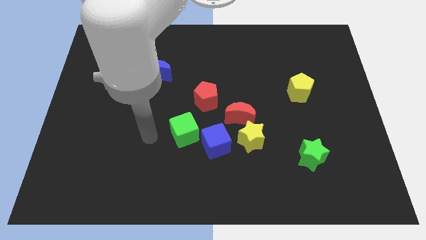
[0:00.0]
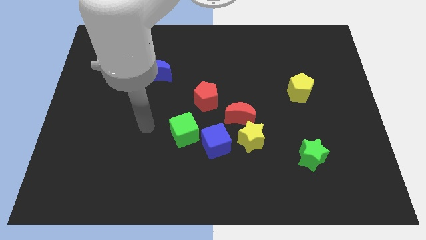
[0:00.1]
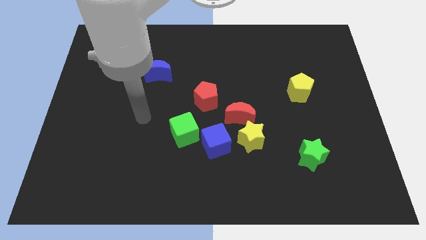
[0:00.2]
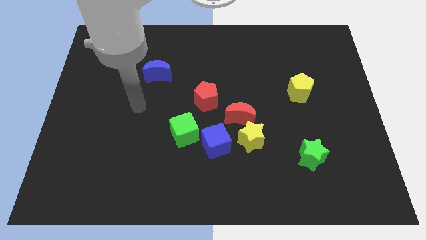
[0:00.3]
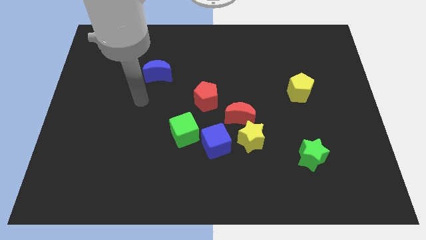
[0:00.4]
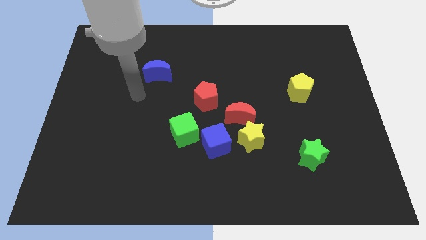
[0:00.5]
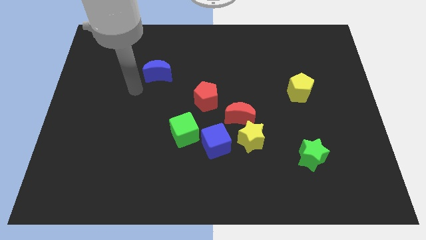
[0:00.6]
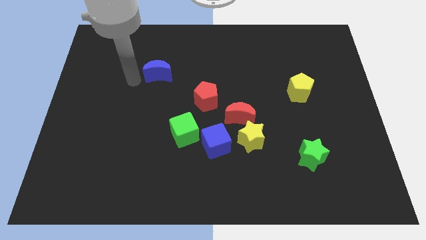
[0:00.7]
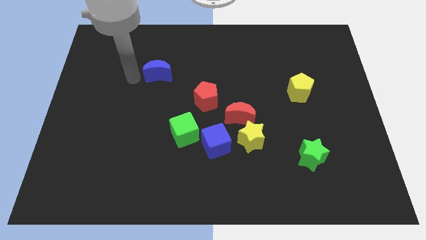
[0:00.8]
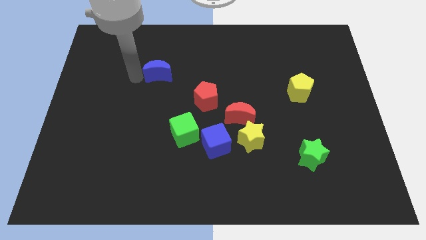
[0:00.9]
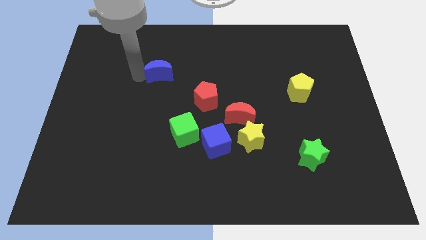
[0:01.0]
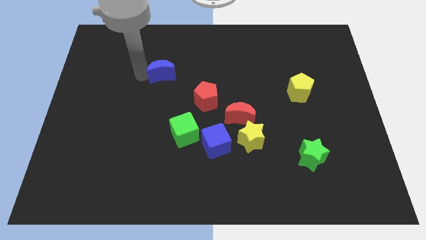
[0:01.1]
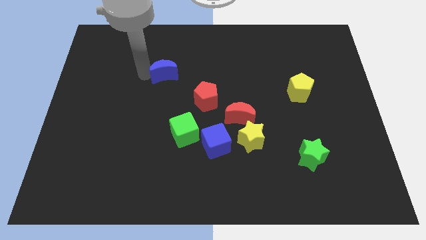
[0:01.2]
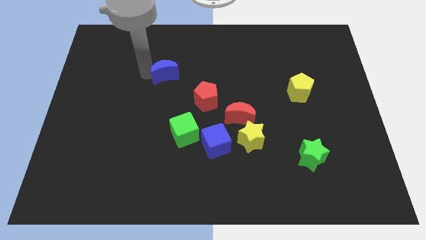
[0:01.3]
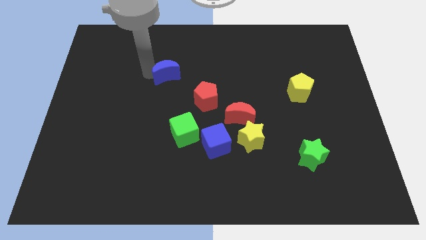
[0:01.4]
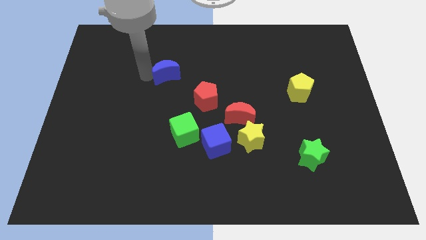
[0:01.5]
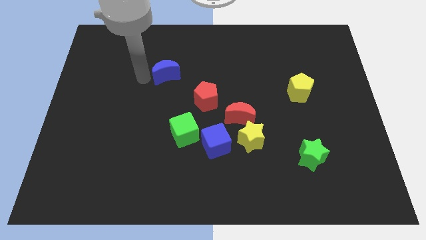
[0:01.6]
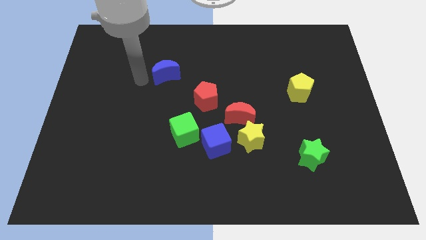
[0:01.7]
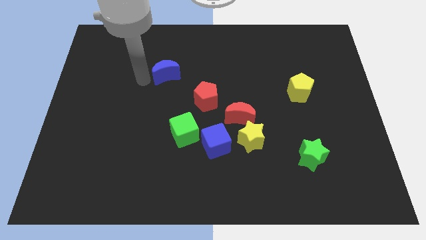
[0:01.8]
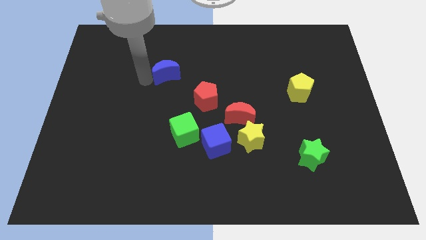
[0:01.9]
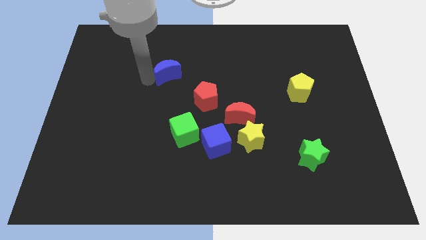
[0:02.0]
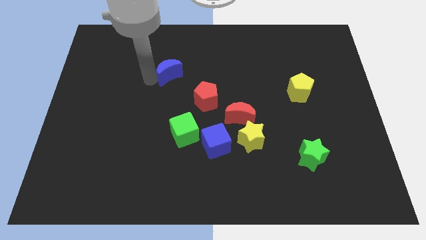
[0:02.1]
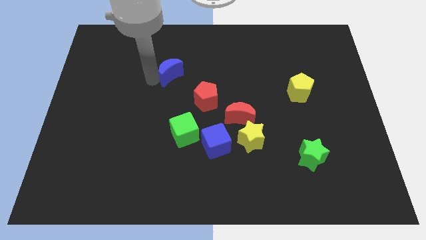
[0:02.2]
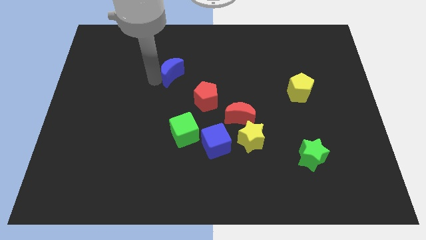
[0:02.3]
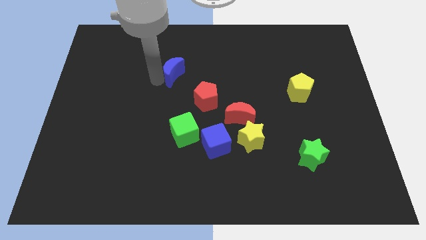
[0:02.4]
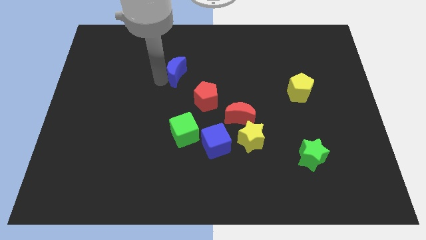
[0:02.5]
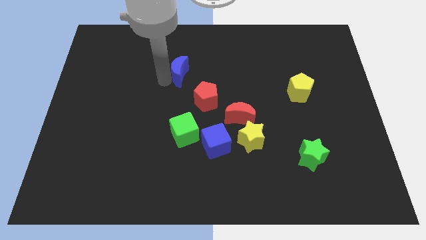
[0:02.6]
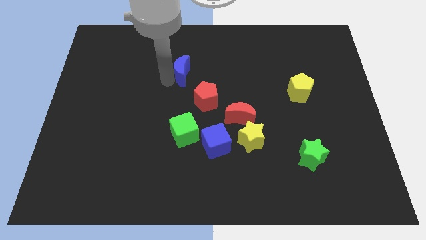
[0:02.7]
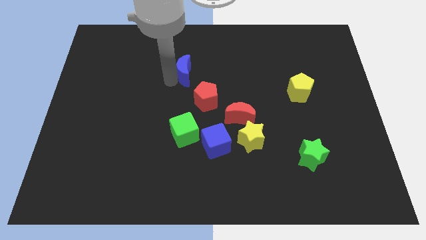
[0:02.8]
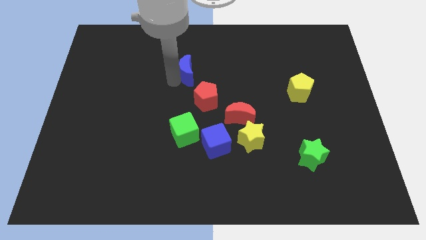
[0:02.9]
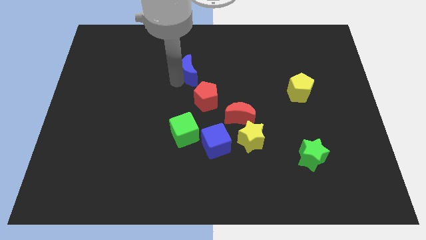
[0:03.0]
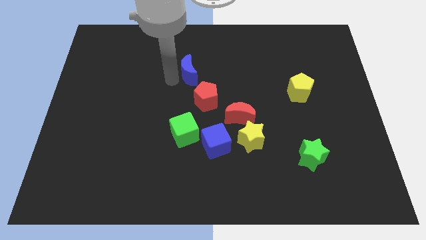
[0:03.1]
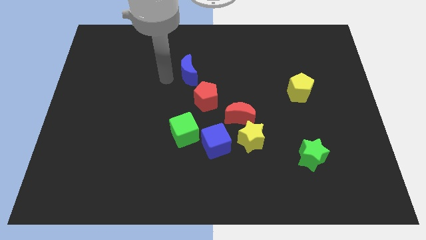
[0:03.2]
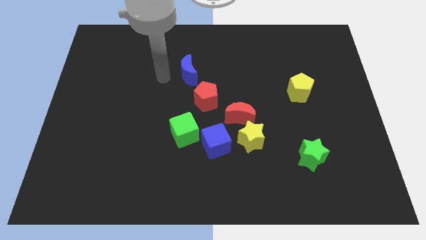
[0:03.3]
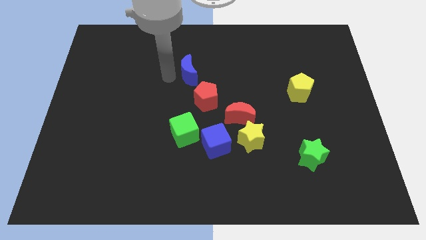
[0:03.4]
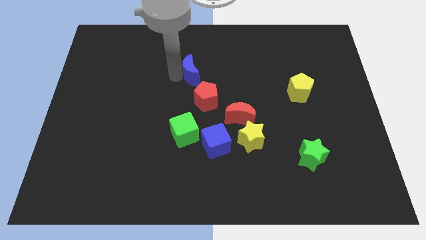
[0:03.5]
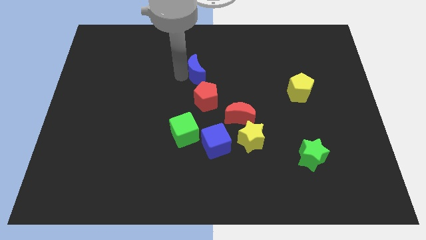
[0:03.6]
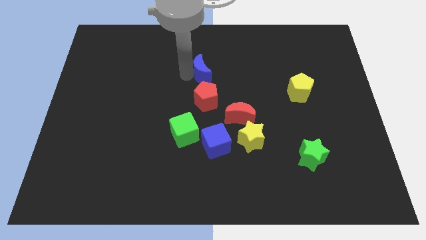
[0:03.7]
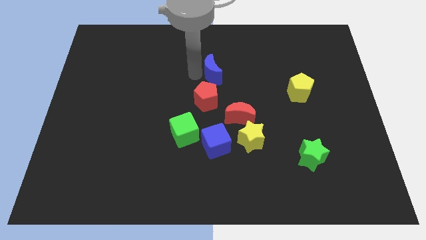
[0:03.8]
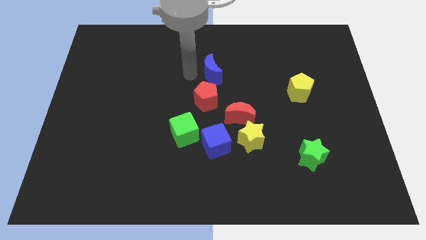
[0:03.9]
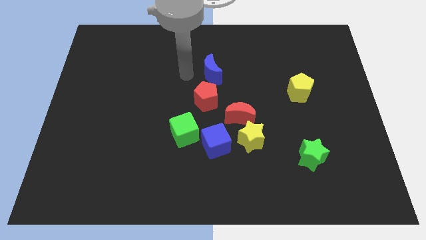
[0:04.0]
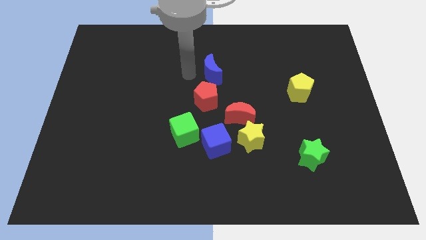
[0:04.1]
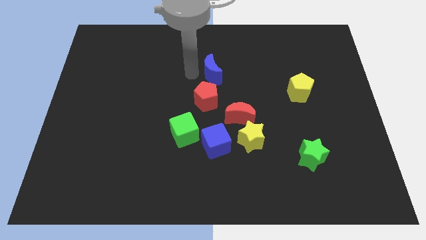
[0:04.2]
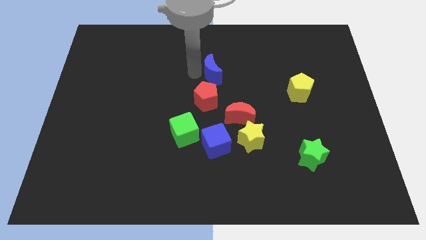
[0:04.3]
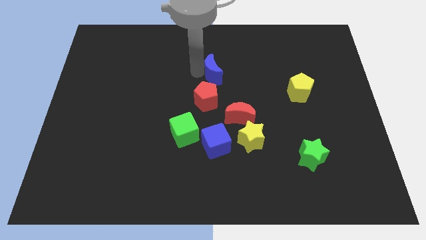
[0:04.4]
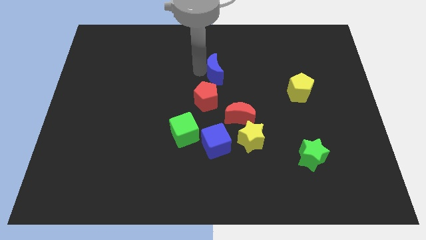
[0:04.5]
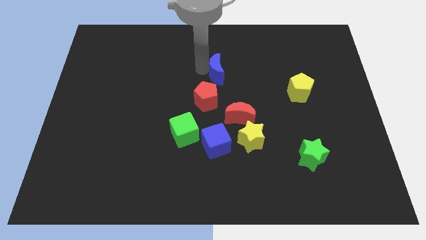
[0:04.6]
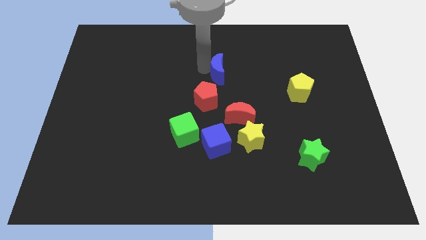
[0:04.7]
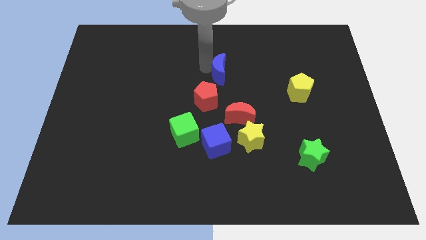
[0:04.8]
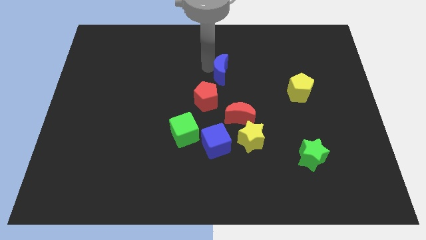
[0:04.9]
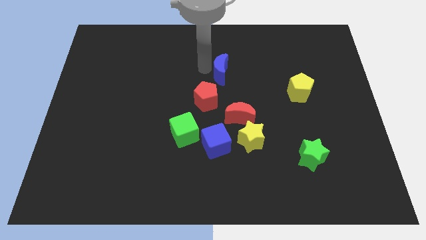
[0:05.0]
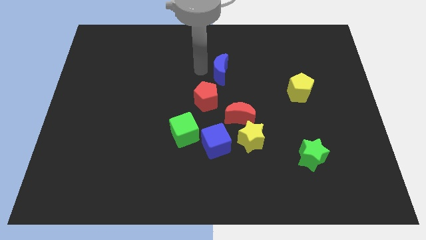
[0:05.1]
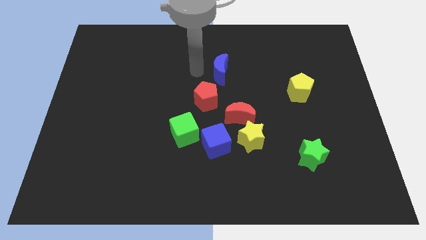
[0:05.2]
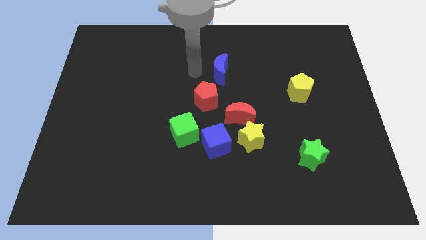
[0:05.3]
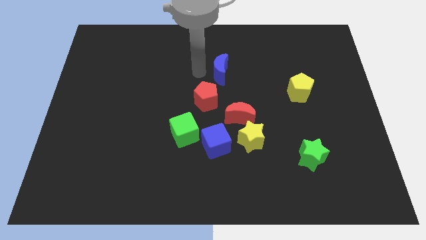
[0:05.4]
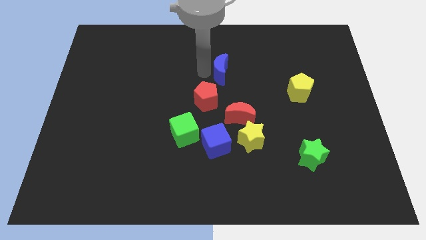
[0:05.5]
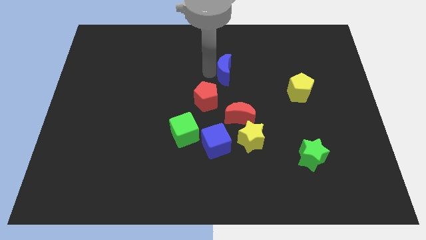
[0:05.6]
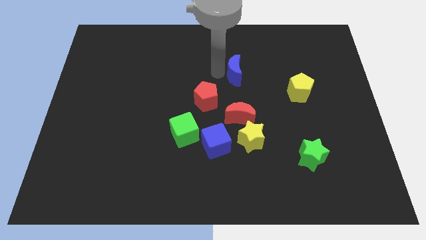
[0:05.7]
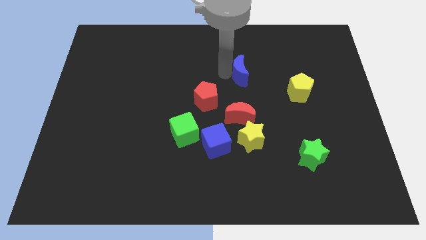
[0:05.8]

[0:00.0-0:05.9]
move the blue moon right

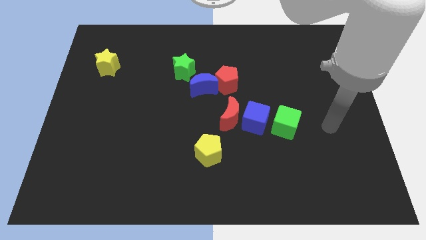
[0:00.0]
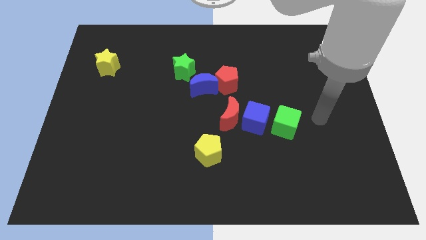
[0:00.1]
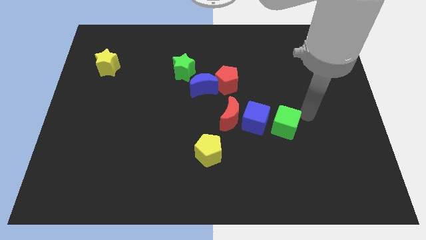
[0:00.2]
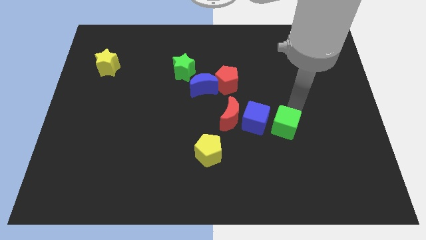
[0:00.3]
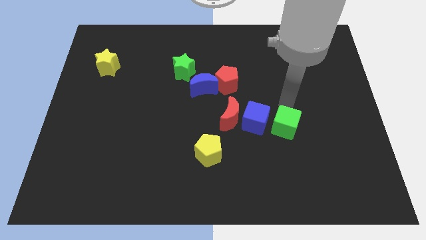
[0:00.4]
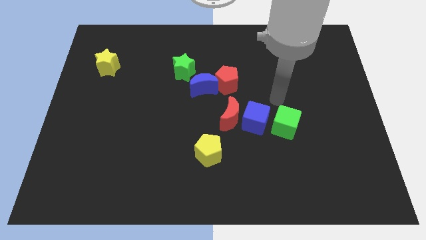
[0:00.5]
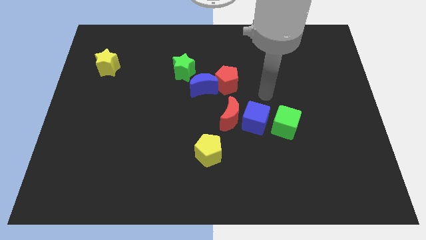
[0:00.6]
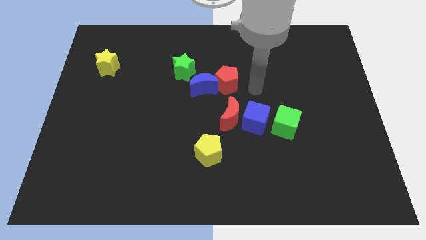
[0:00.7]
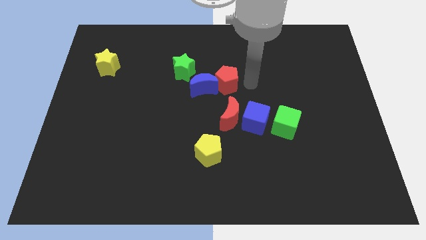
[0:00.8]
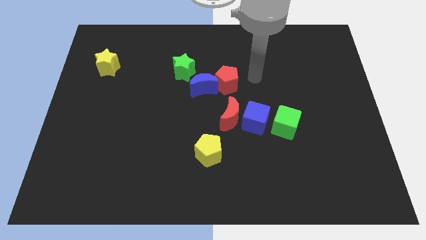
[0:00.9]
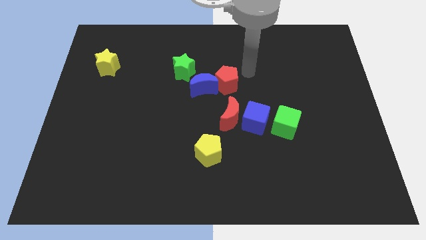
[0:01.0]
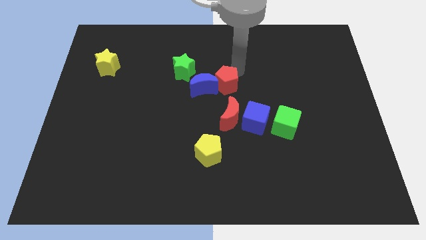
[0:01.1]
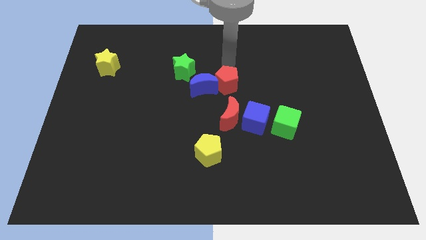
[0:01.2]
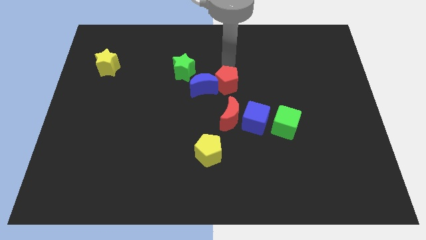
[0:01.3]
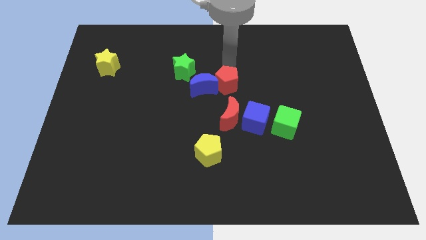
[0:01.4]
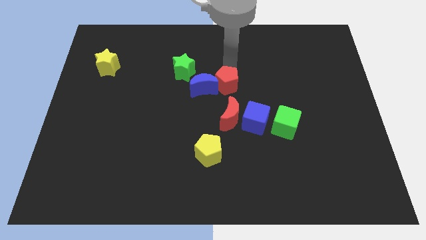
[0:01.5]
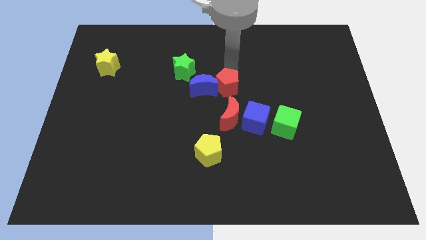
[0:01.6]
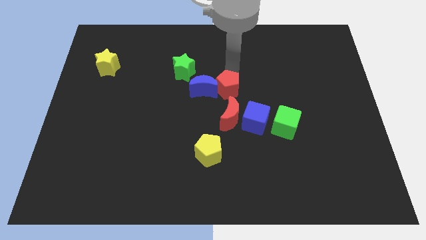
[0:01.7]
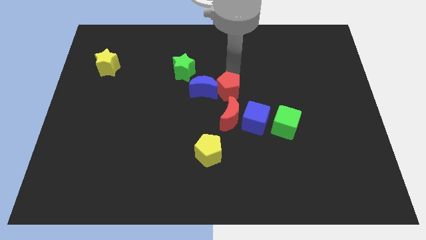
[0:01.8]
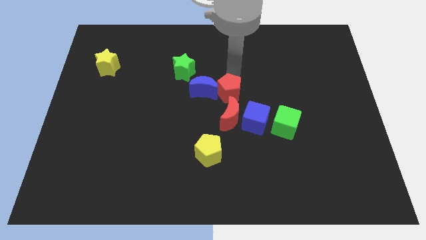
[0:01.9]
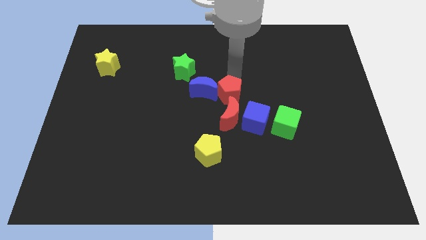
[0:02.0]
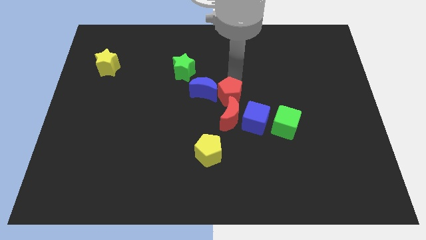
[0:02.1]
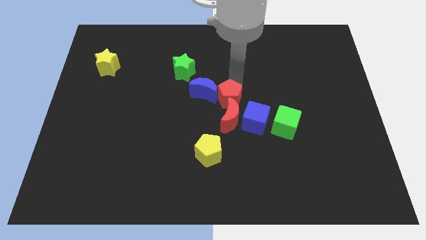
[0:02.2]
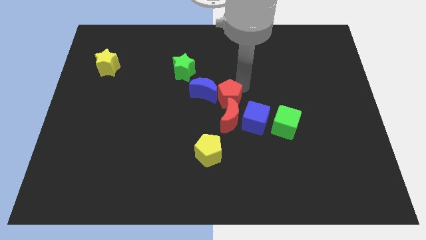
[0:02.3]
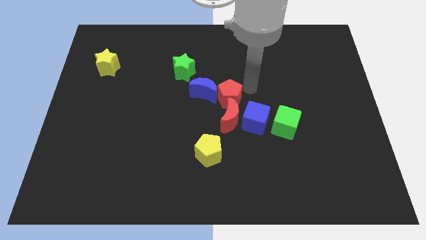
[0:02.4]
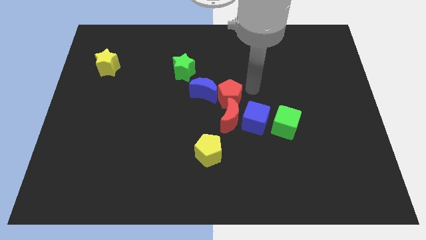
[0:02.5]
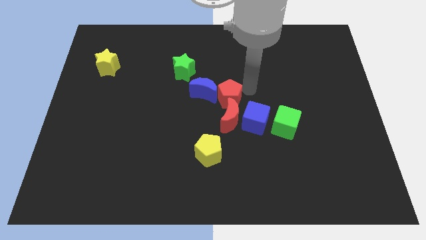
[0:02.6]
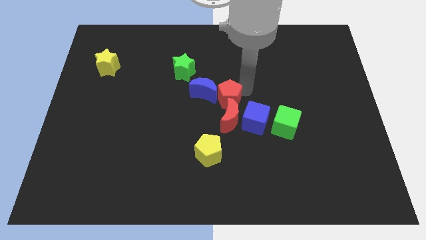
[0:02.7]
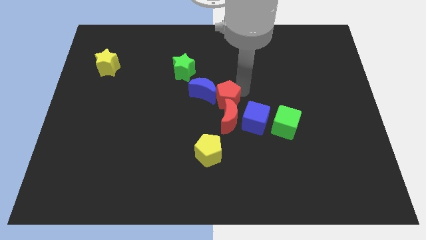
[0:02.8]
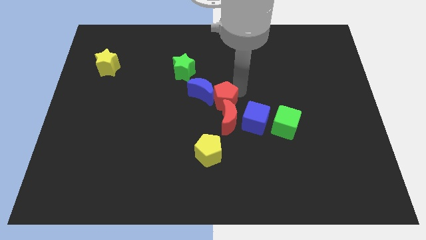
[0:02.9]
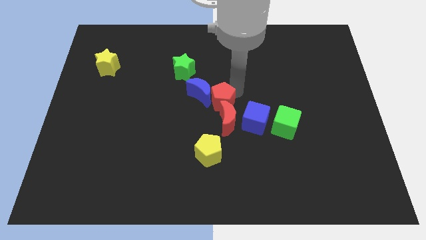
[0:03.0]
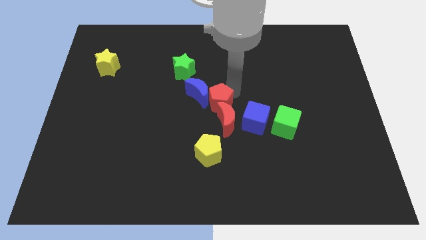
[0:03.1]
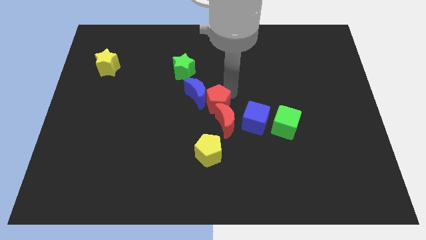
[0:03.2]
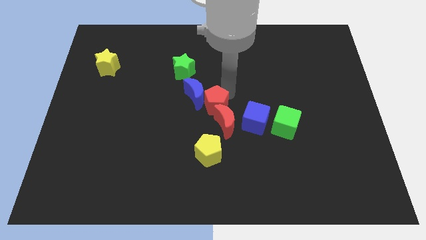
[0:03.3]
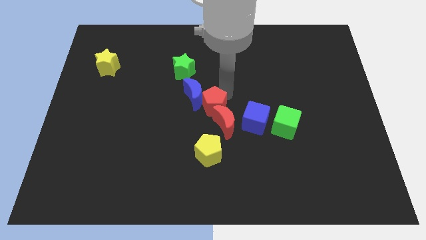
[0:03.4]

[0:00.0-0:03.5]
slightly slide the red pentagon down
